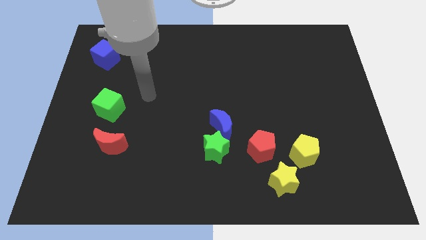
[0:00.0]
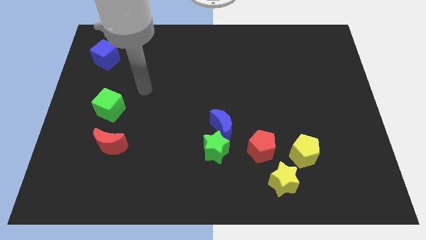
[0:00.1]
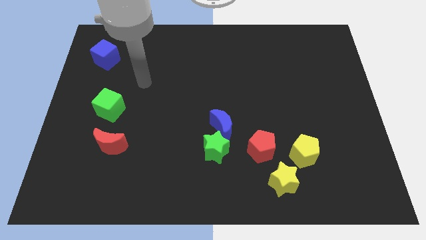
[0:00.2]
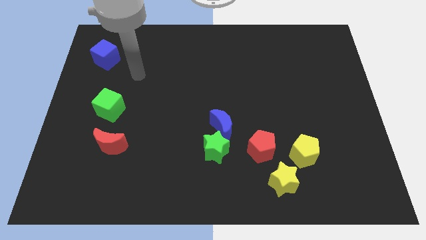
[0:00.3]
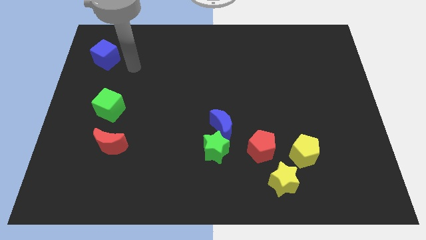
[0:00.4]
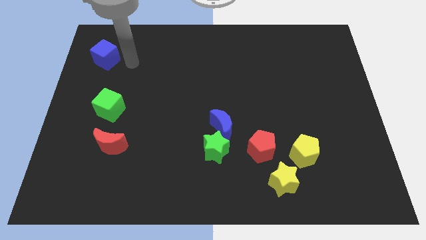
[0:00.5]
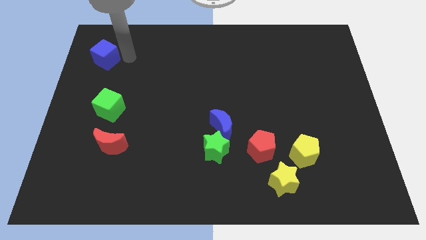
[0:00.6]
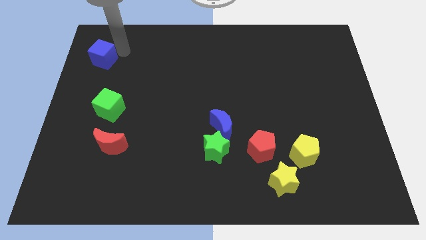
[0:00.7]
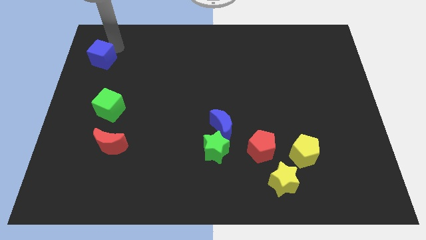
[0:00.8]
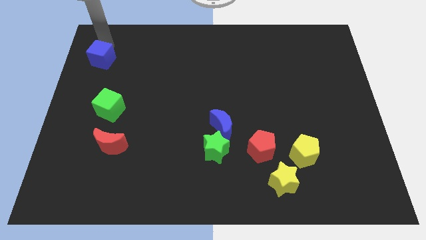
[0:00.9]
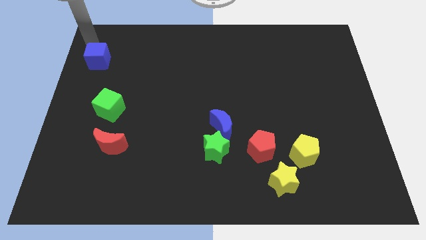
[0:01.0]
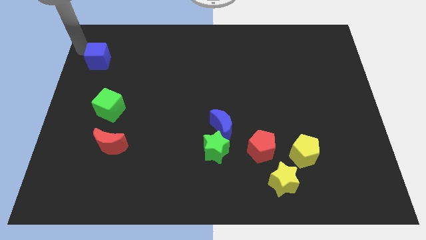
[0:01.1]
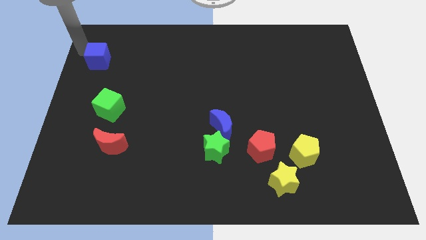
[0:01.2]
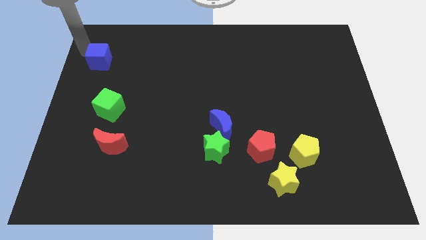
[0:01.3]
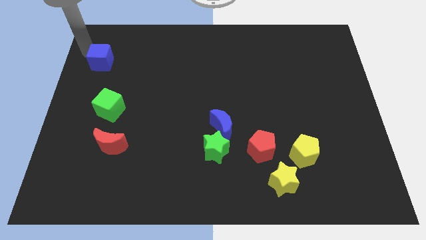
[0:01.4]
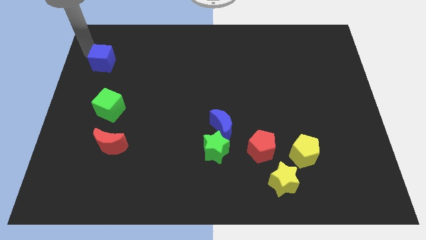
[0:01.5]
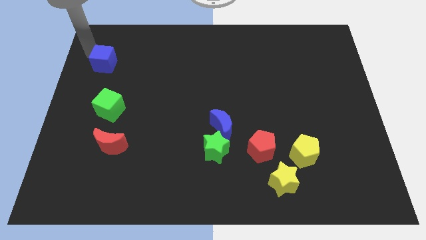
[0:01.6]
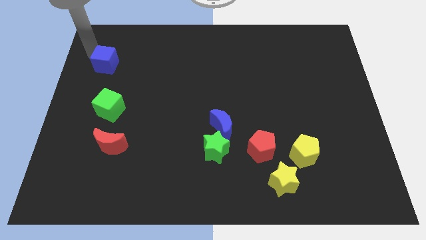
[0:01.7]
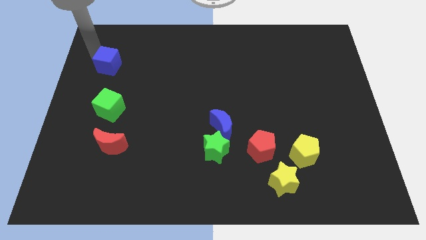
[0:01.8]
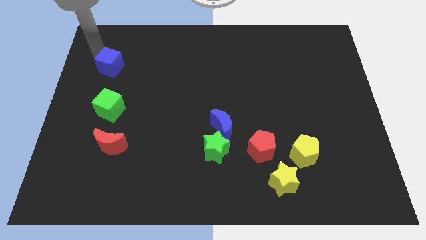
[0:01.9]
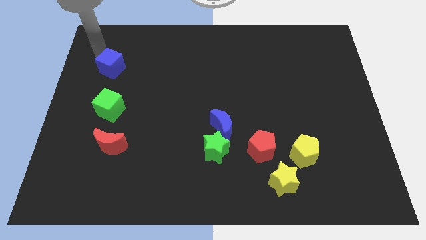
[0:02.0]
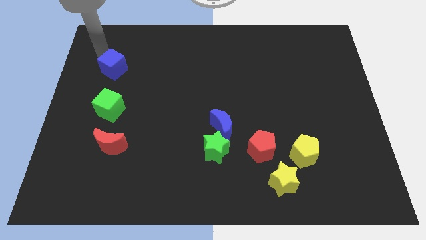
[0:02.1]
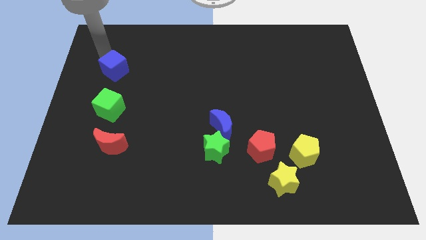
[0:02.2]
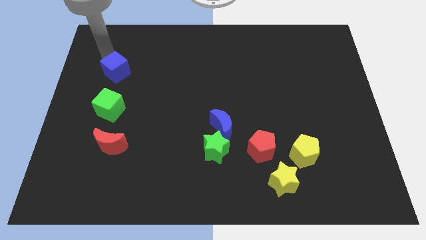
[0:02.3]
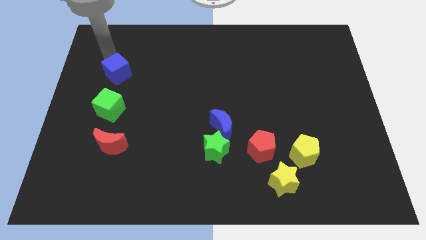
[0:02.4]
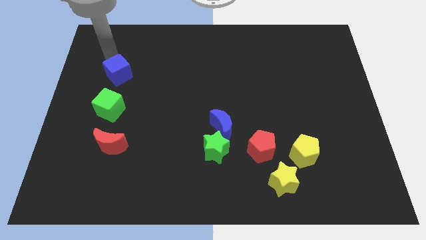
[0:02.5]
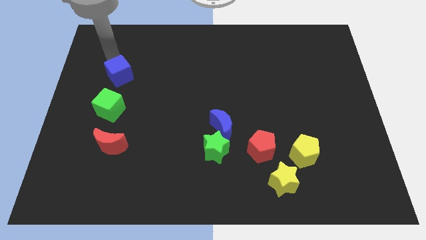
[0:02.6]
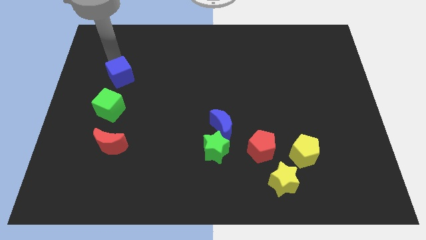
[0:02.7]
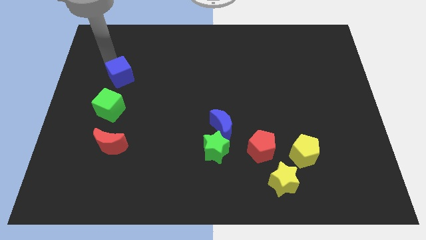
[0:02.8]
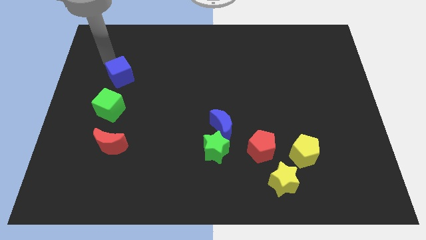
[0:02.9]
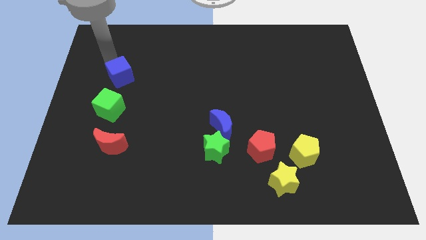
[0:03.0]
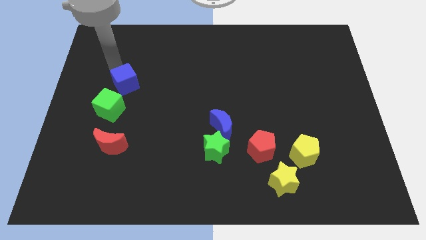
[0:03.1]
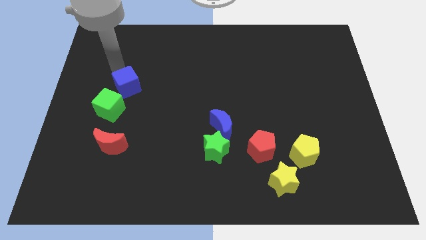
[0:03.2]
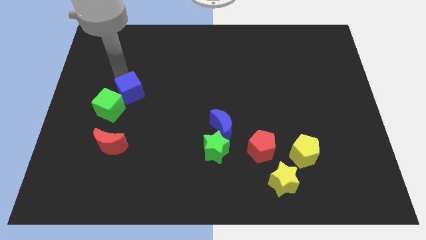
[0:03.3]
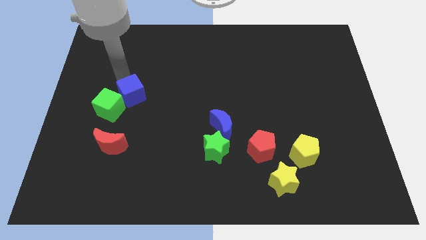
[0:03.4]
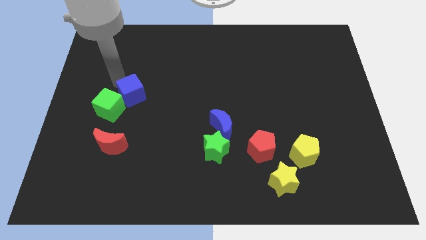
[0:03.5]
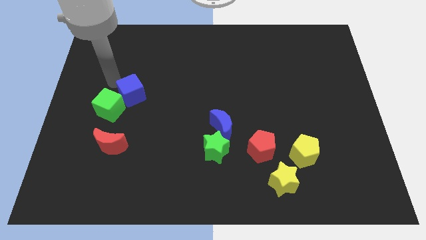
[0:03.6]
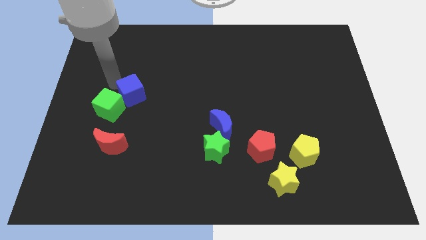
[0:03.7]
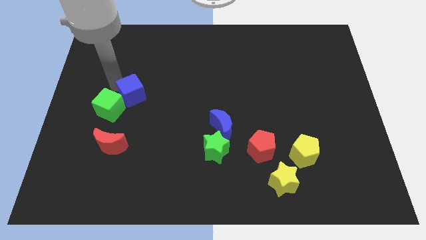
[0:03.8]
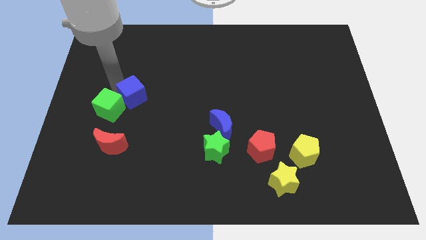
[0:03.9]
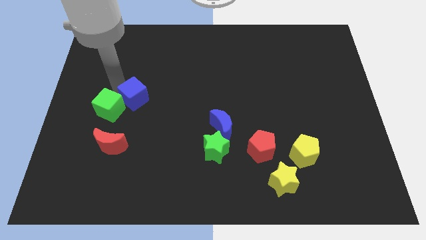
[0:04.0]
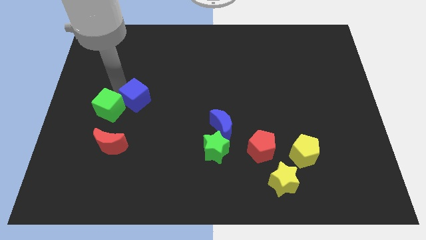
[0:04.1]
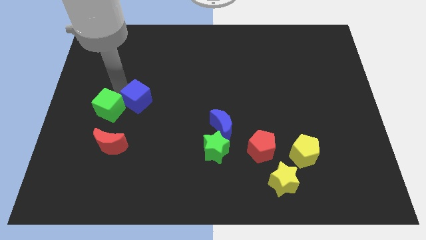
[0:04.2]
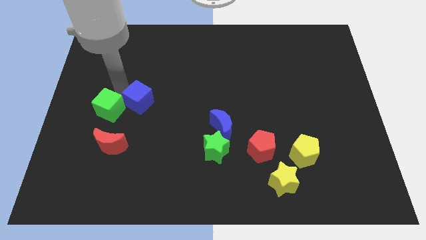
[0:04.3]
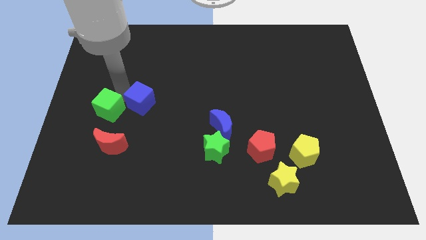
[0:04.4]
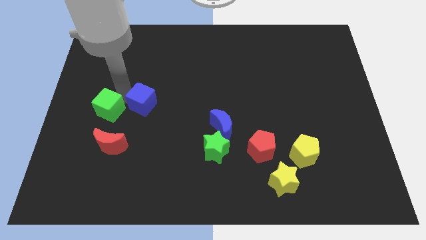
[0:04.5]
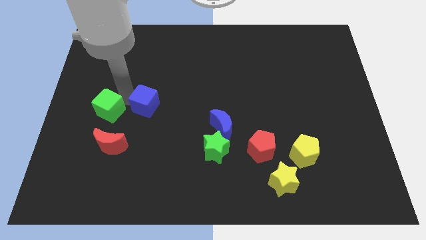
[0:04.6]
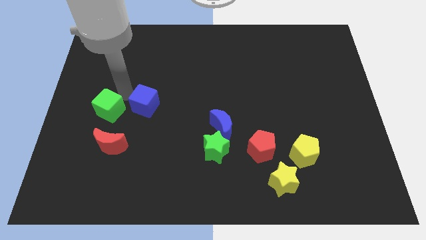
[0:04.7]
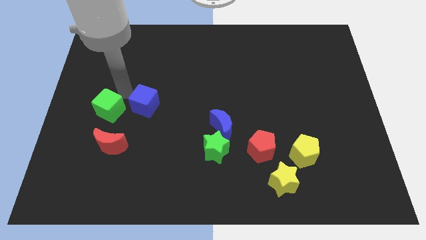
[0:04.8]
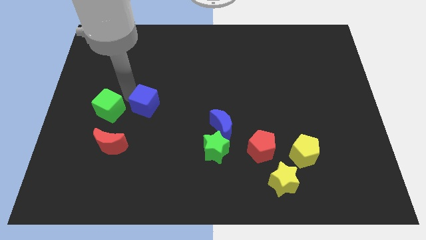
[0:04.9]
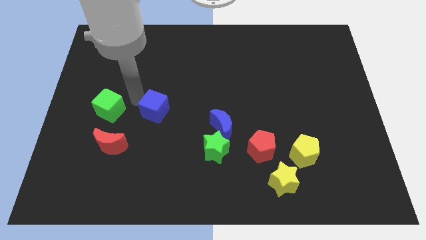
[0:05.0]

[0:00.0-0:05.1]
push the blue cube diagonally down and right

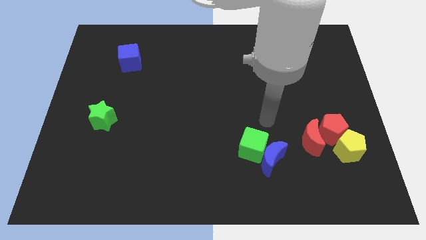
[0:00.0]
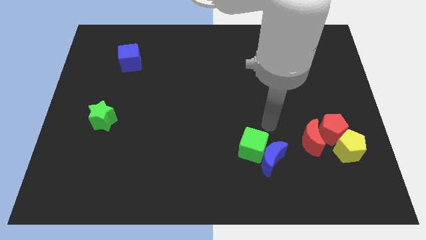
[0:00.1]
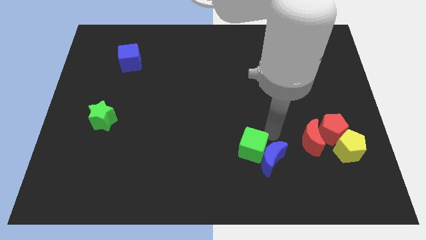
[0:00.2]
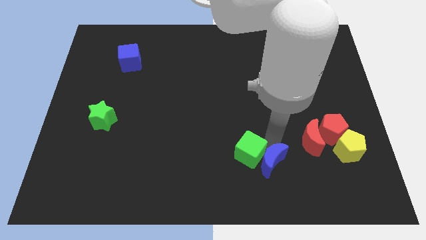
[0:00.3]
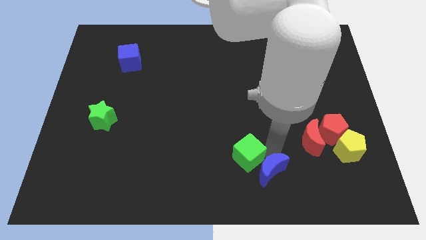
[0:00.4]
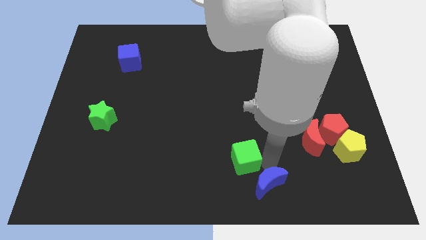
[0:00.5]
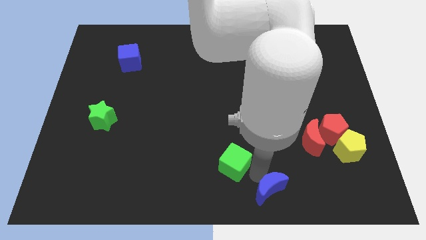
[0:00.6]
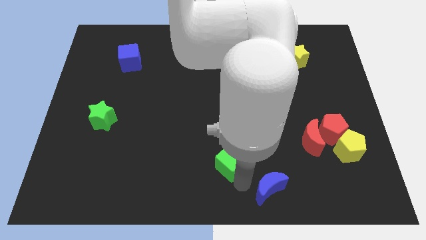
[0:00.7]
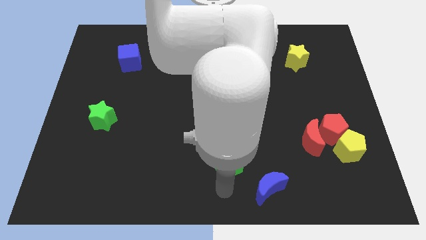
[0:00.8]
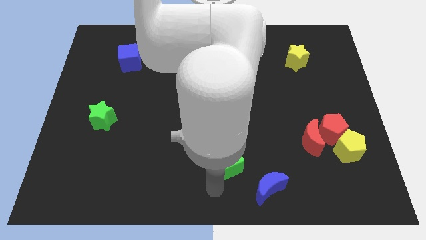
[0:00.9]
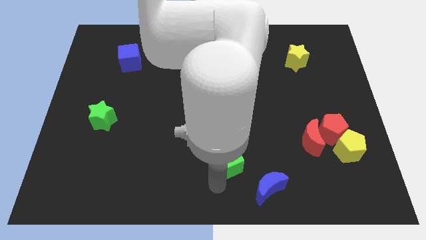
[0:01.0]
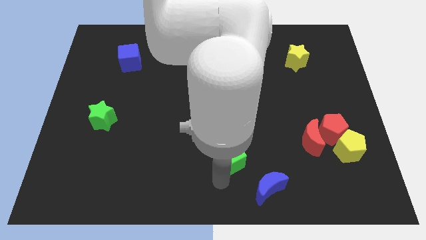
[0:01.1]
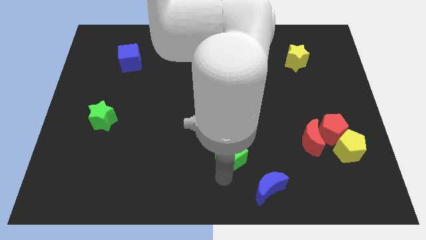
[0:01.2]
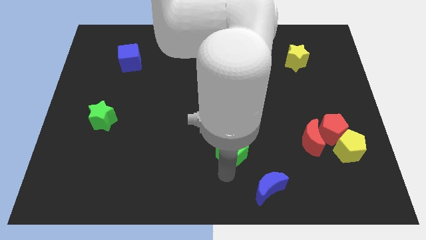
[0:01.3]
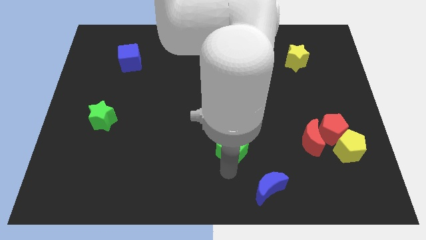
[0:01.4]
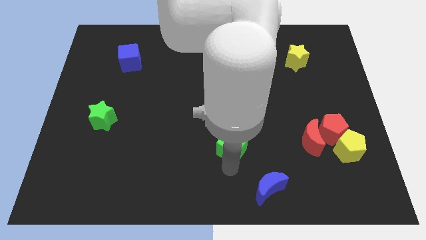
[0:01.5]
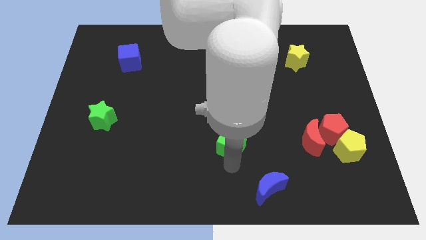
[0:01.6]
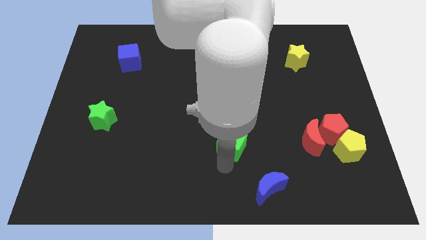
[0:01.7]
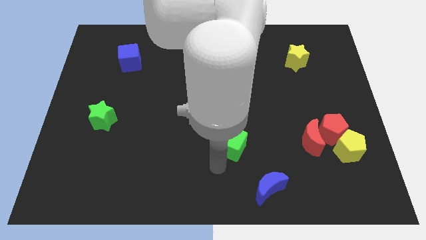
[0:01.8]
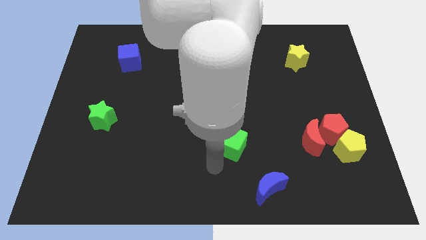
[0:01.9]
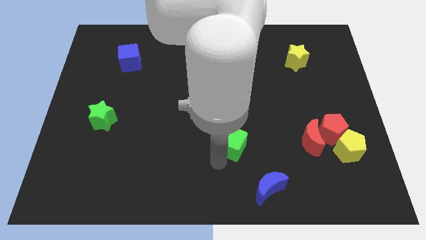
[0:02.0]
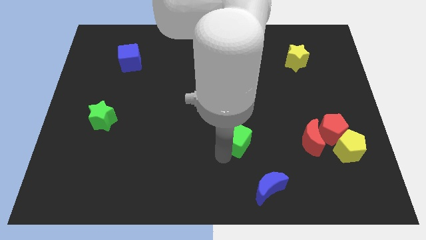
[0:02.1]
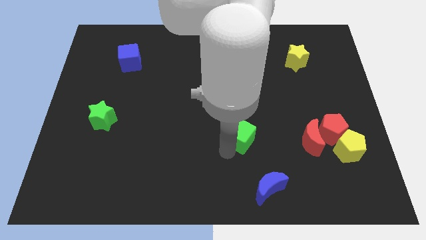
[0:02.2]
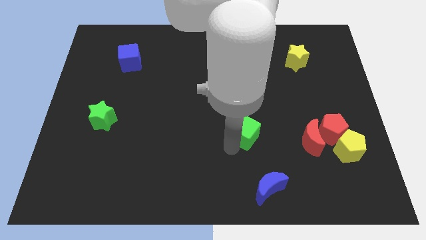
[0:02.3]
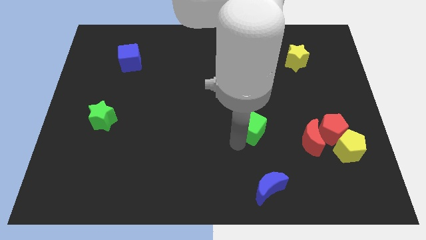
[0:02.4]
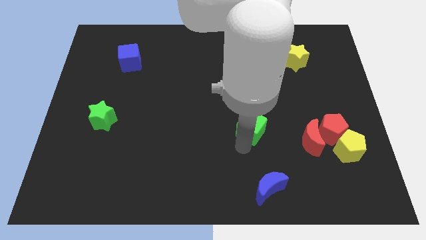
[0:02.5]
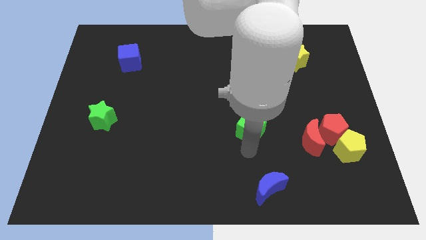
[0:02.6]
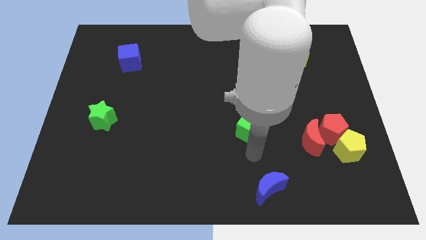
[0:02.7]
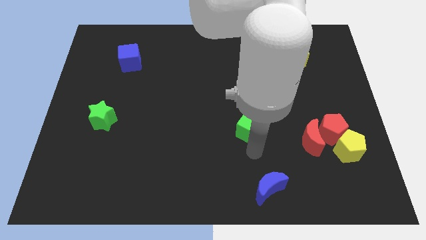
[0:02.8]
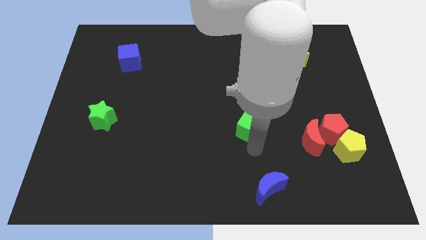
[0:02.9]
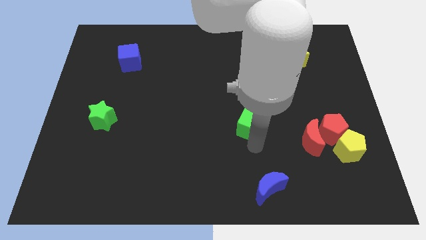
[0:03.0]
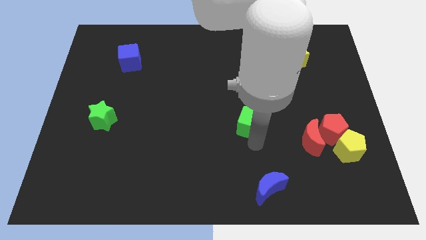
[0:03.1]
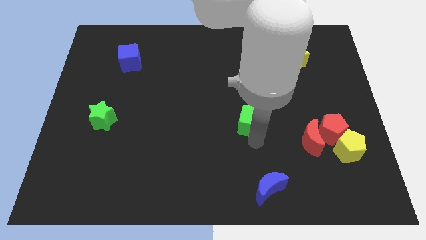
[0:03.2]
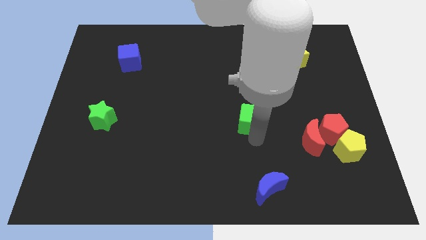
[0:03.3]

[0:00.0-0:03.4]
slightly push the green cube upwards
